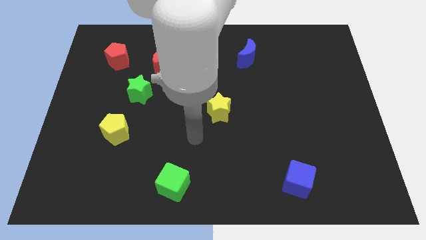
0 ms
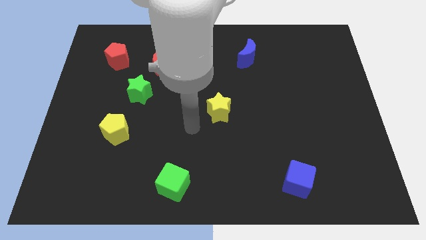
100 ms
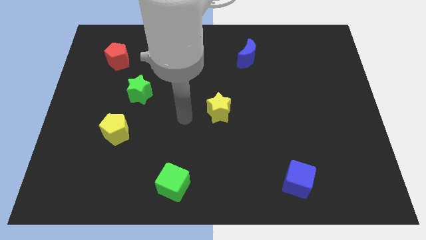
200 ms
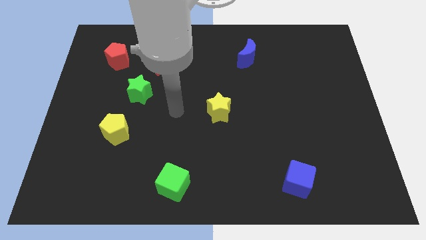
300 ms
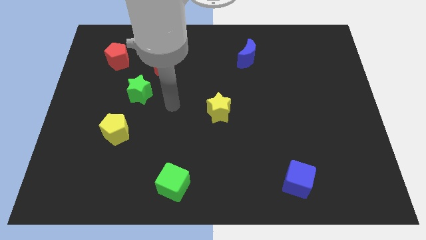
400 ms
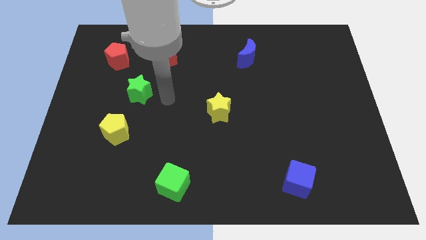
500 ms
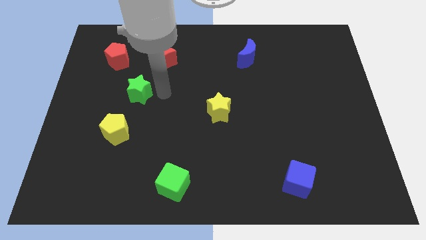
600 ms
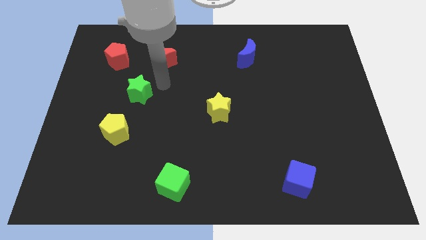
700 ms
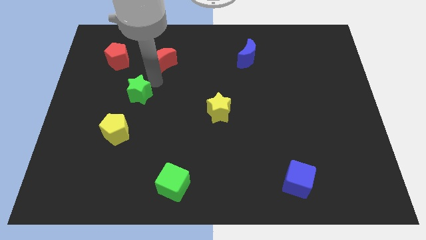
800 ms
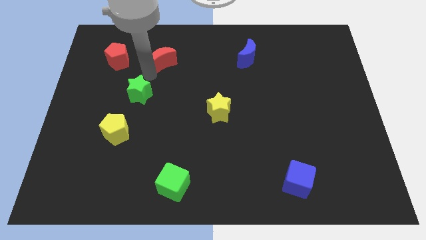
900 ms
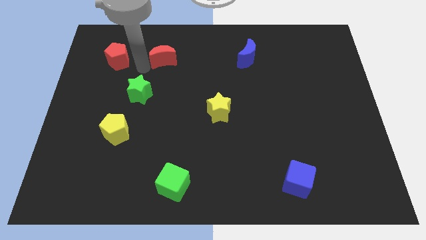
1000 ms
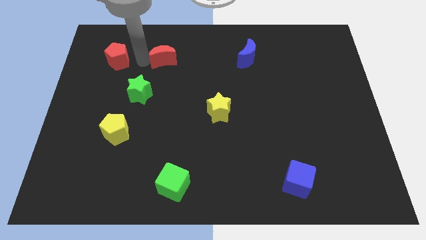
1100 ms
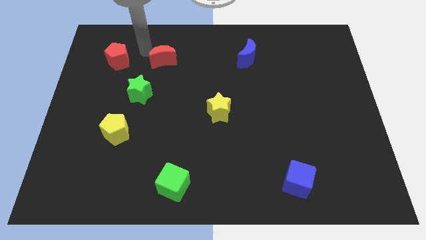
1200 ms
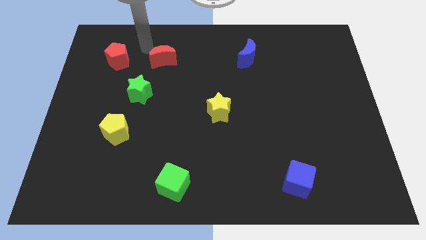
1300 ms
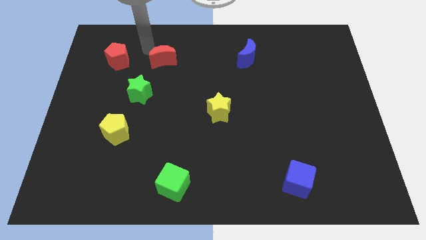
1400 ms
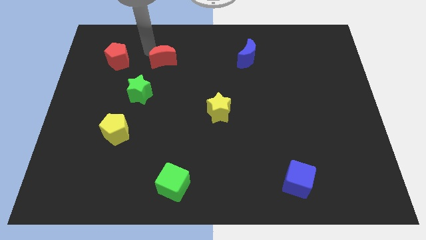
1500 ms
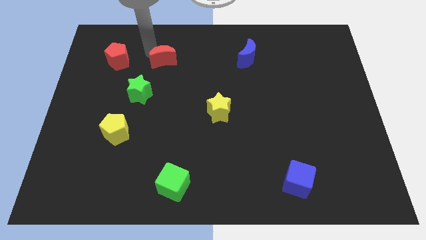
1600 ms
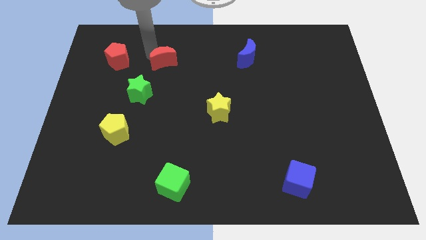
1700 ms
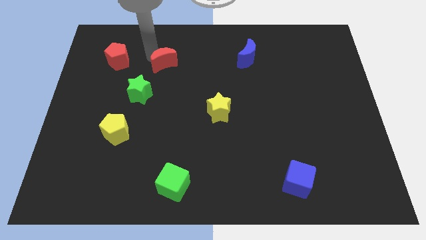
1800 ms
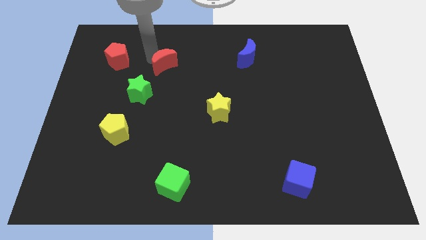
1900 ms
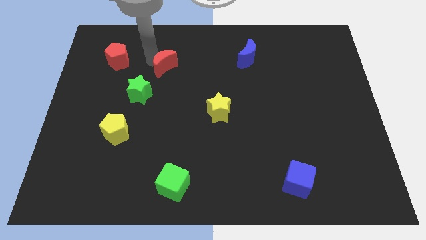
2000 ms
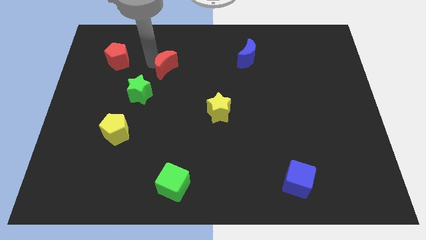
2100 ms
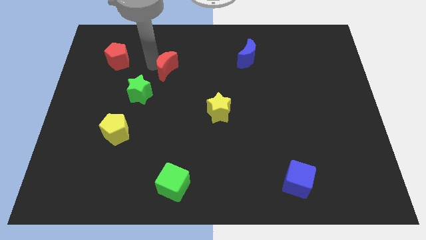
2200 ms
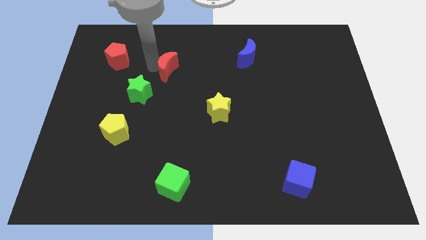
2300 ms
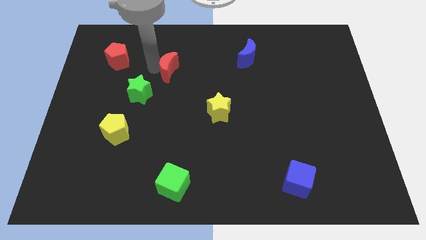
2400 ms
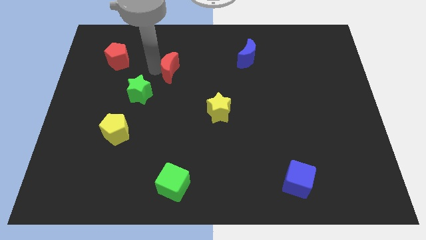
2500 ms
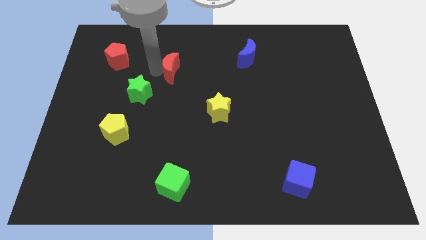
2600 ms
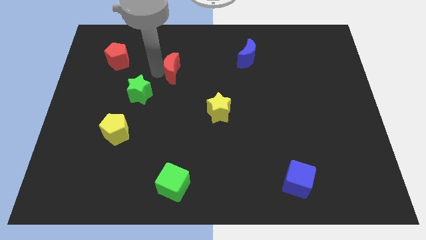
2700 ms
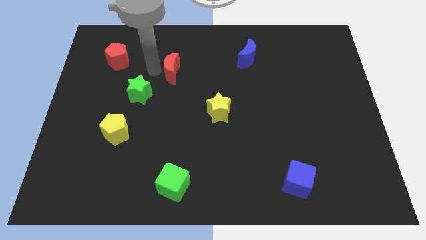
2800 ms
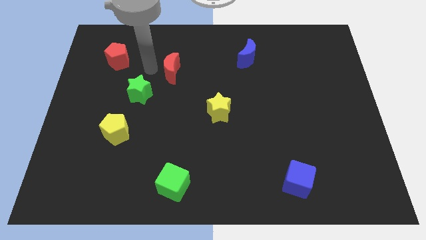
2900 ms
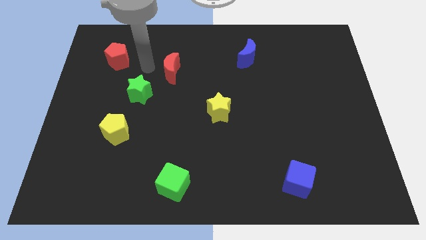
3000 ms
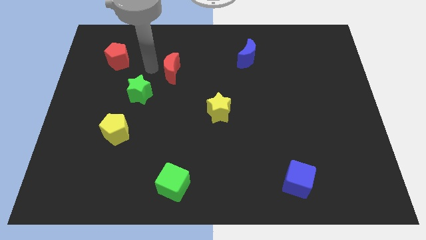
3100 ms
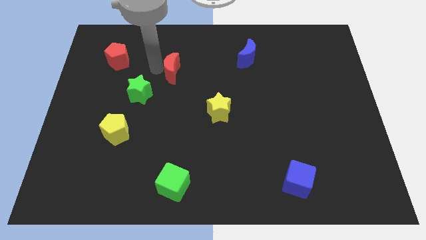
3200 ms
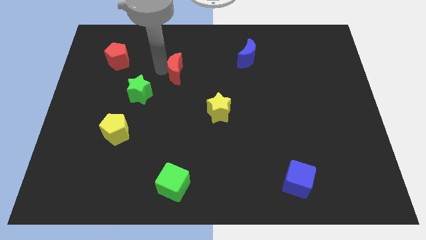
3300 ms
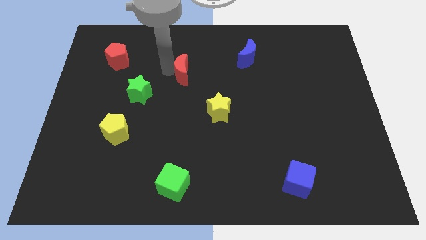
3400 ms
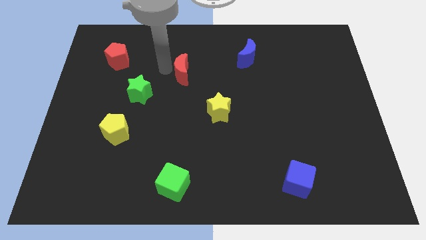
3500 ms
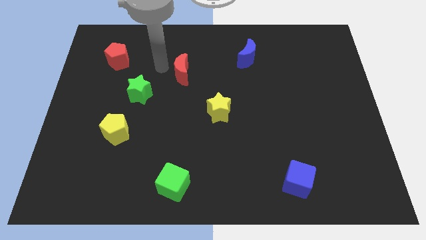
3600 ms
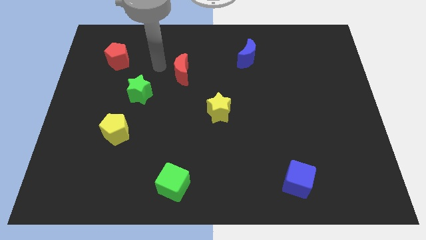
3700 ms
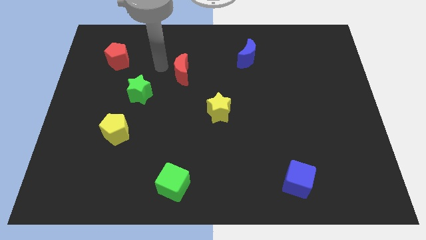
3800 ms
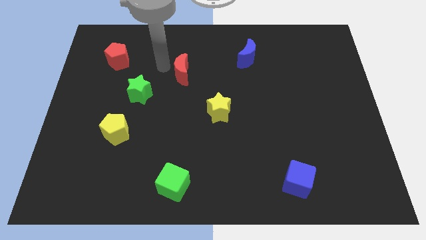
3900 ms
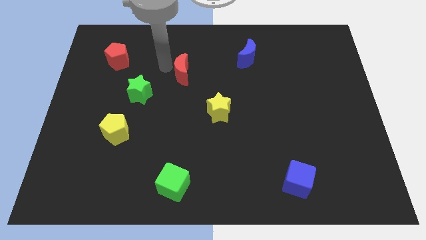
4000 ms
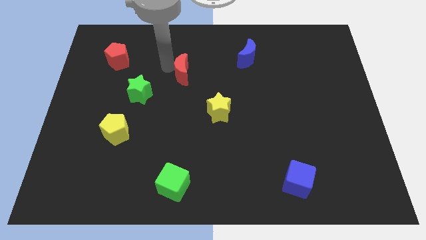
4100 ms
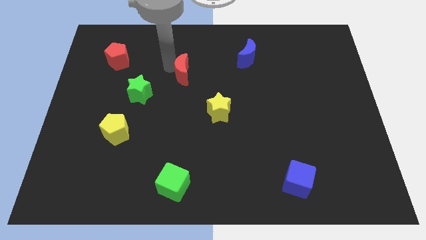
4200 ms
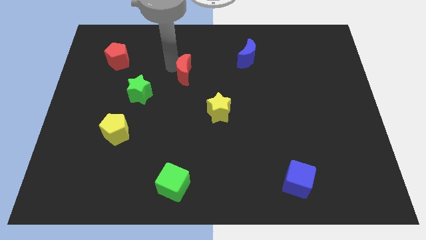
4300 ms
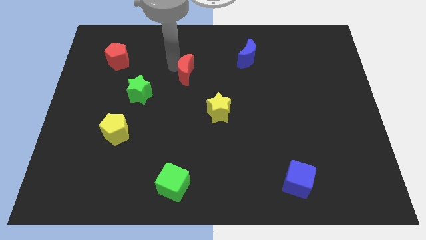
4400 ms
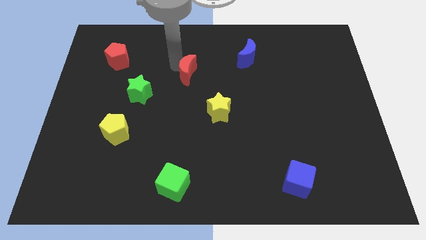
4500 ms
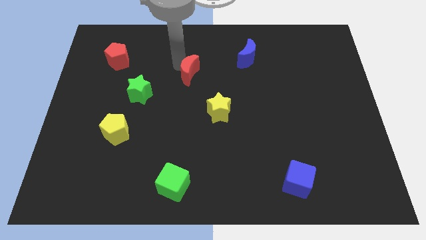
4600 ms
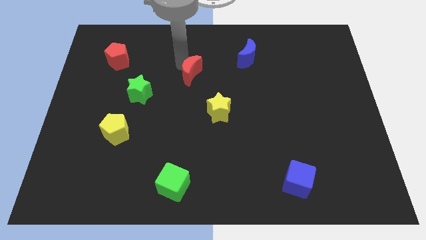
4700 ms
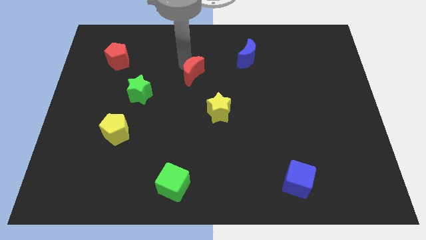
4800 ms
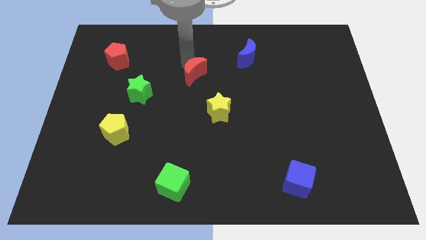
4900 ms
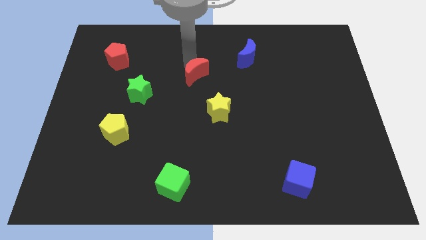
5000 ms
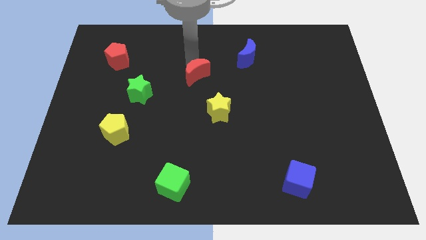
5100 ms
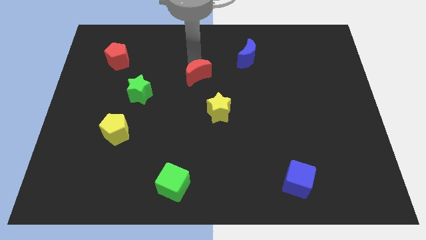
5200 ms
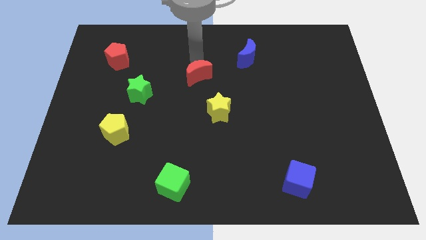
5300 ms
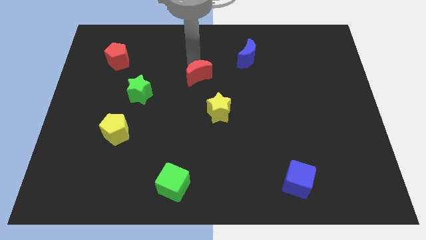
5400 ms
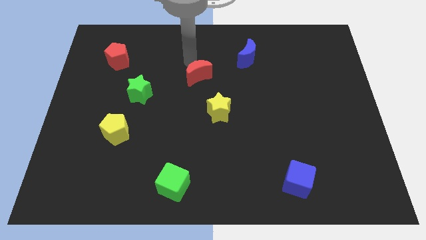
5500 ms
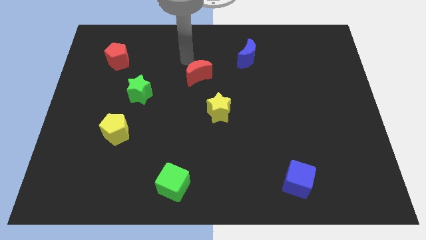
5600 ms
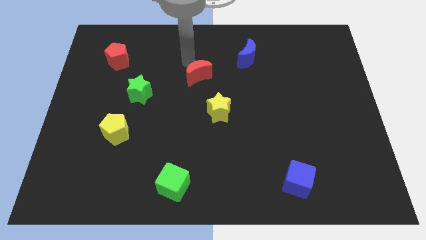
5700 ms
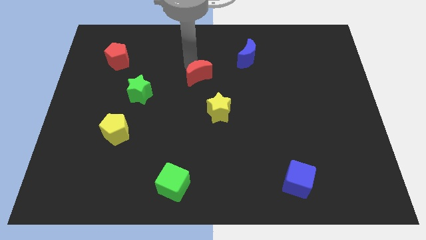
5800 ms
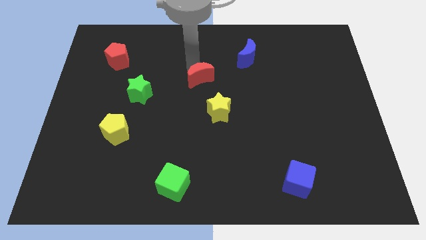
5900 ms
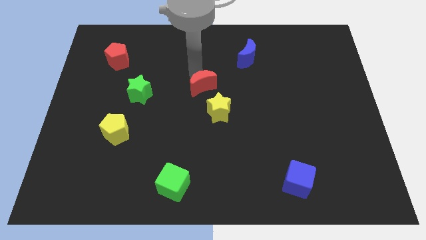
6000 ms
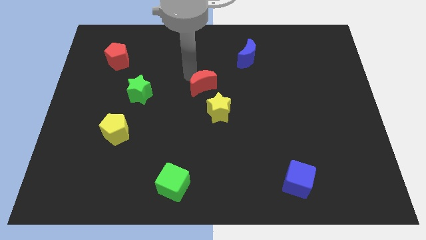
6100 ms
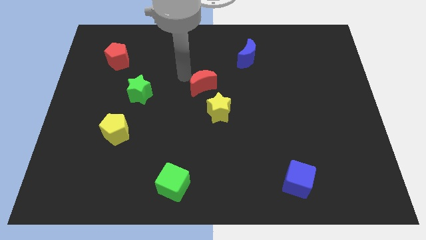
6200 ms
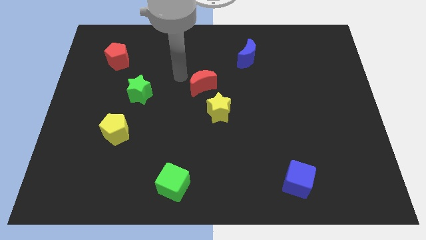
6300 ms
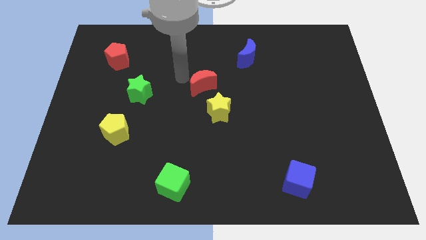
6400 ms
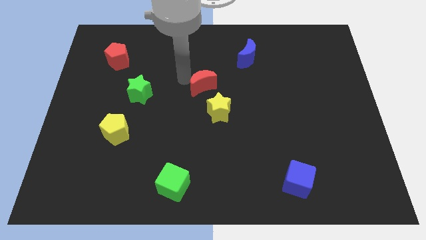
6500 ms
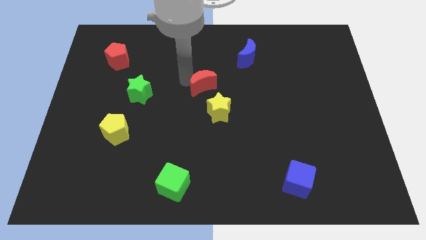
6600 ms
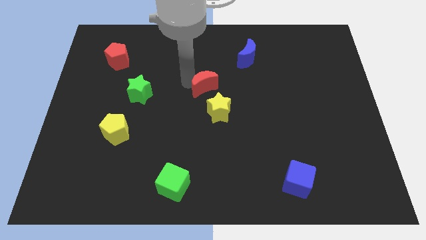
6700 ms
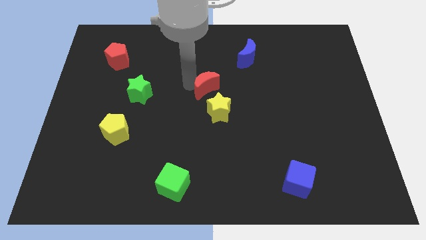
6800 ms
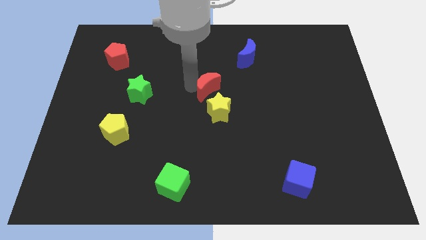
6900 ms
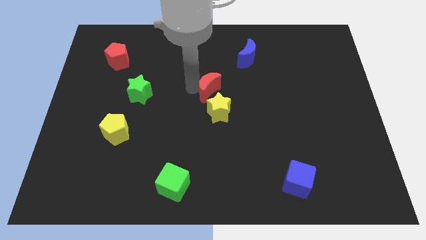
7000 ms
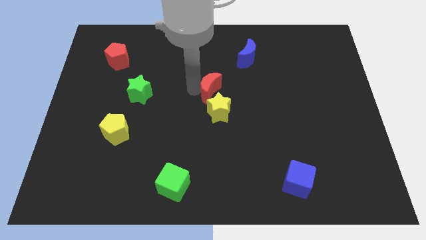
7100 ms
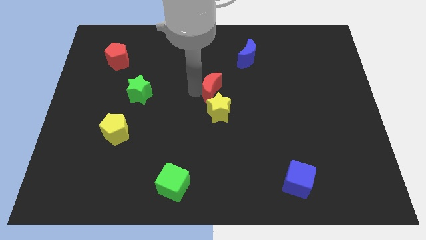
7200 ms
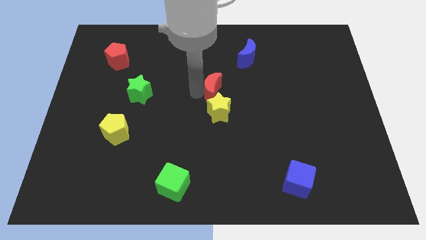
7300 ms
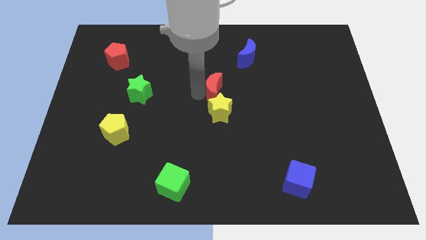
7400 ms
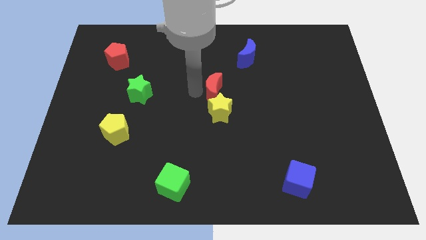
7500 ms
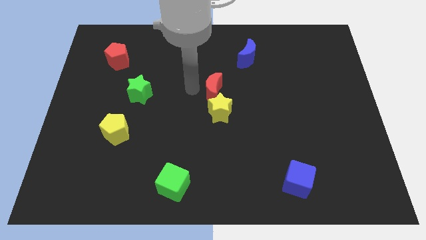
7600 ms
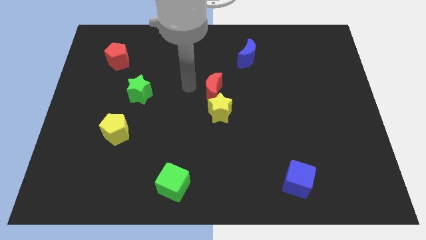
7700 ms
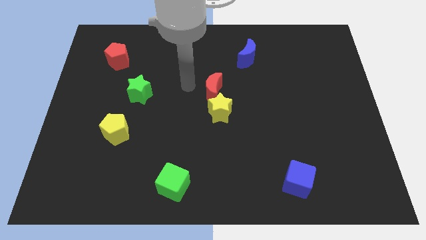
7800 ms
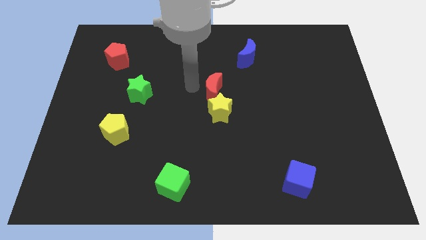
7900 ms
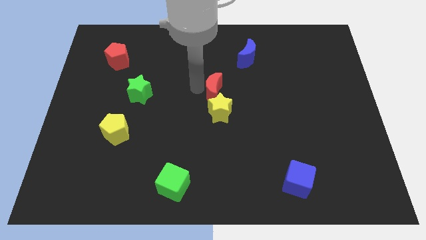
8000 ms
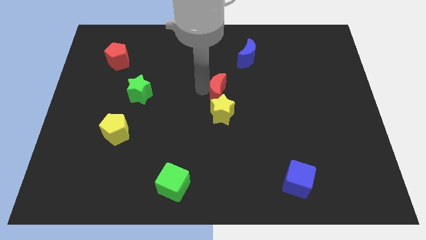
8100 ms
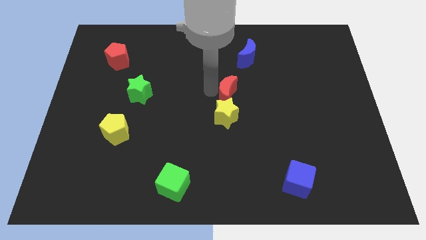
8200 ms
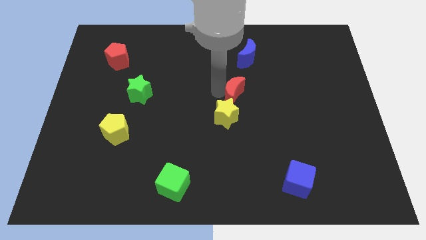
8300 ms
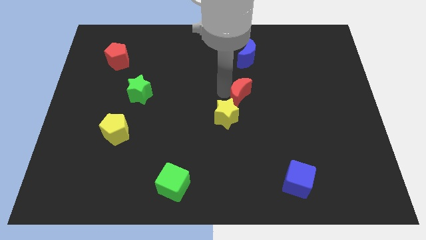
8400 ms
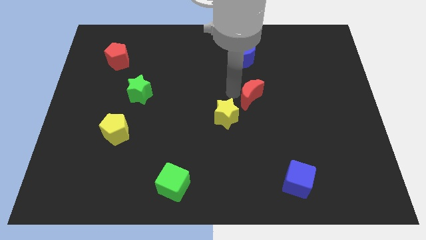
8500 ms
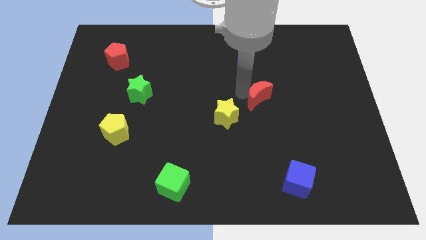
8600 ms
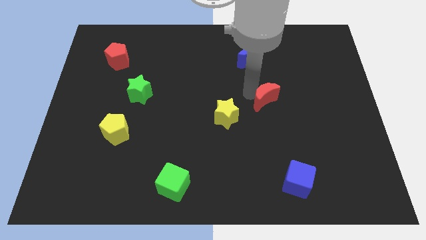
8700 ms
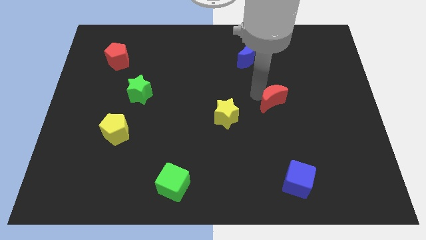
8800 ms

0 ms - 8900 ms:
push the red moon just right of the yellow star
